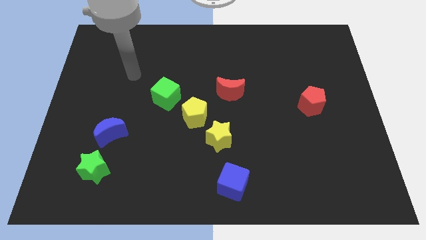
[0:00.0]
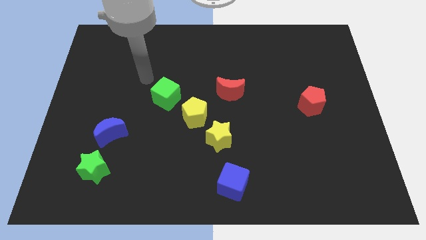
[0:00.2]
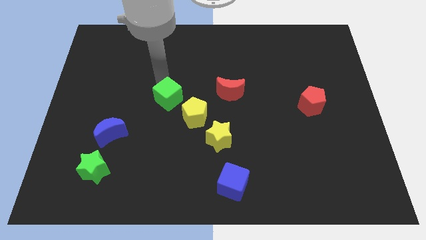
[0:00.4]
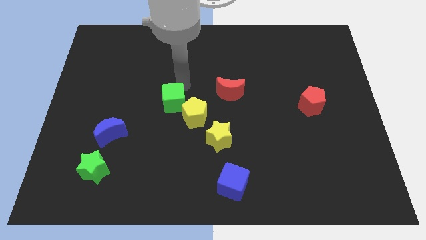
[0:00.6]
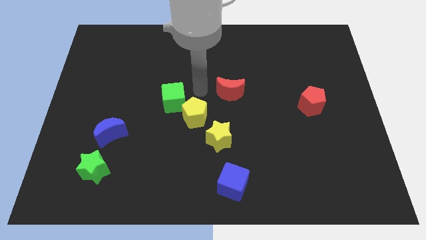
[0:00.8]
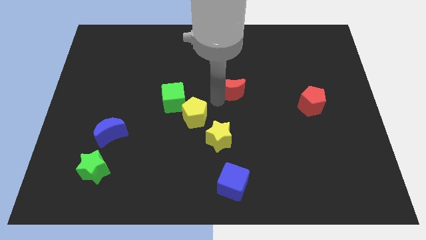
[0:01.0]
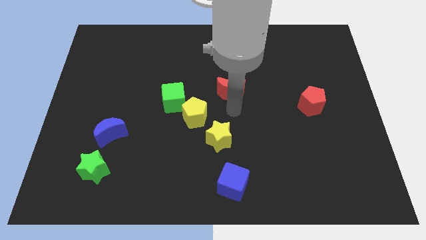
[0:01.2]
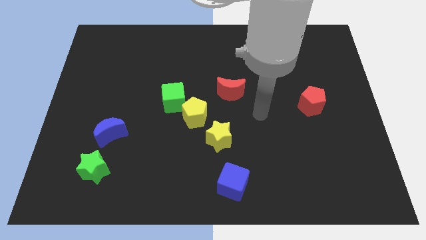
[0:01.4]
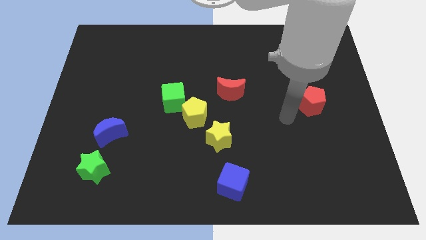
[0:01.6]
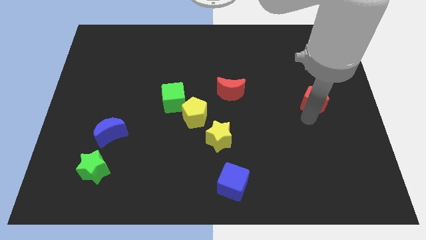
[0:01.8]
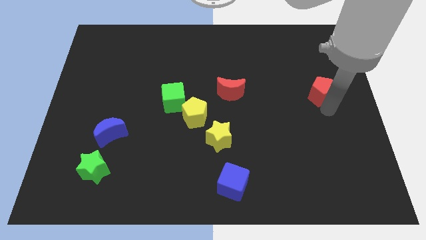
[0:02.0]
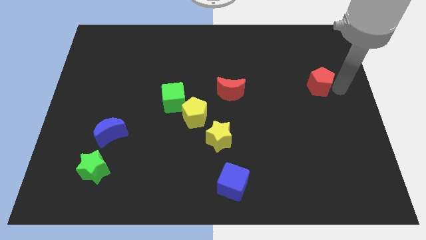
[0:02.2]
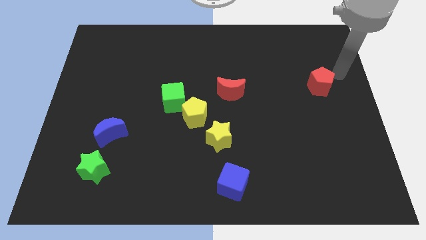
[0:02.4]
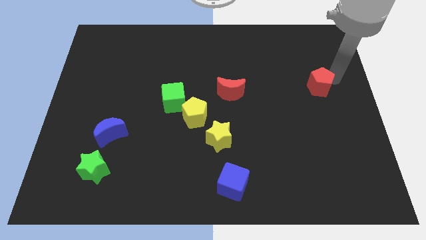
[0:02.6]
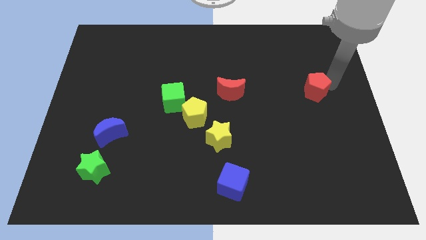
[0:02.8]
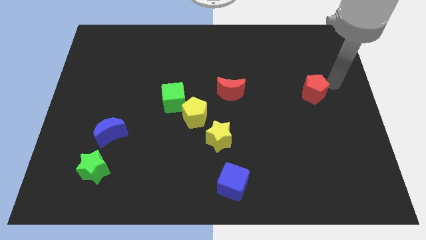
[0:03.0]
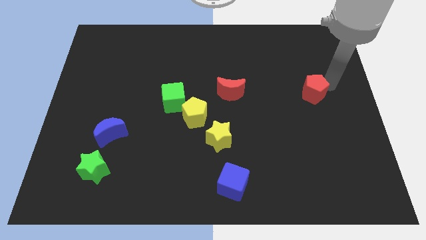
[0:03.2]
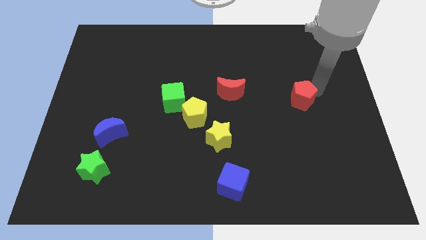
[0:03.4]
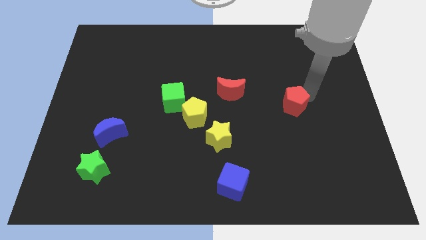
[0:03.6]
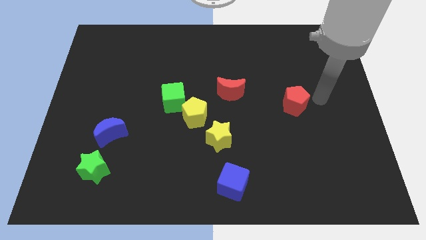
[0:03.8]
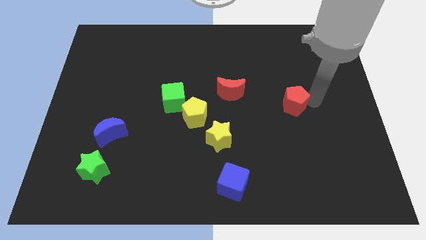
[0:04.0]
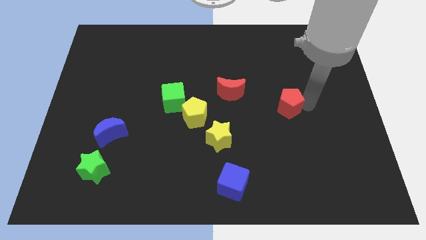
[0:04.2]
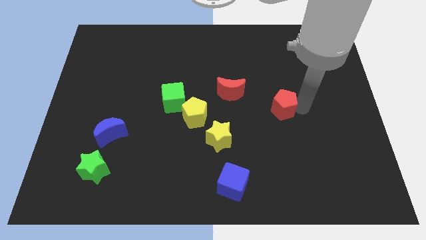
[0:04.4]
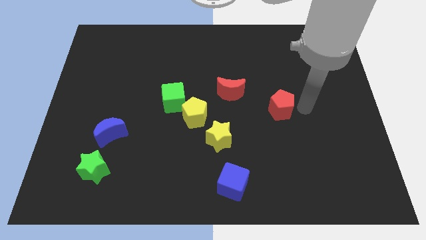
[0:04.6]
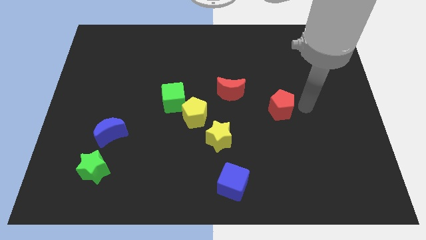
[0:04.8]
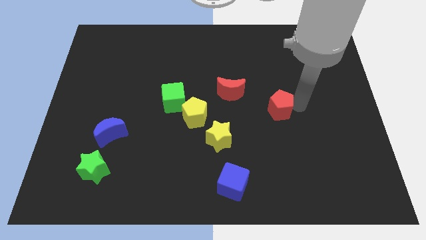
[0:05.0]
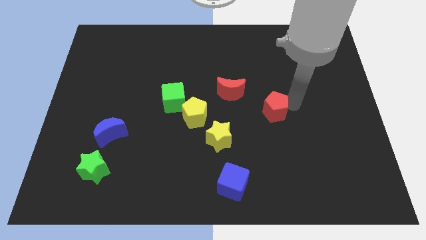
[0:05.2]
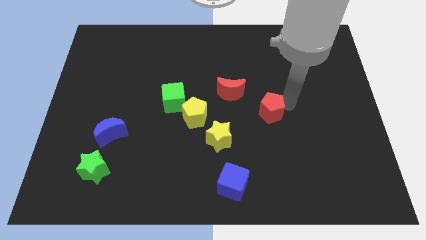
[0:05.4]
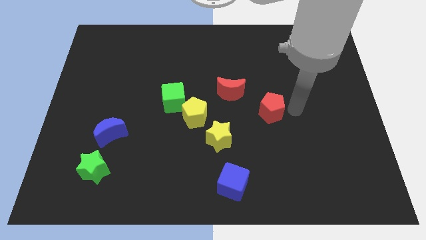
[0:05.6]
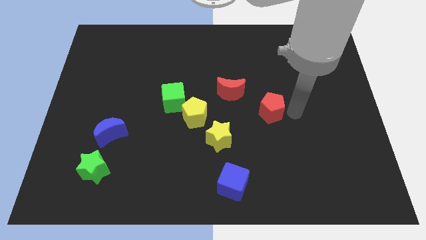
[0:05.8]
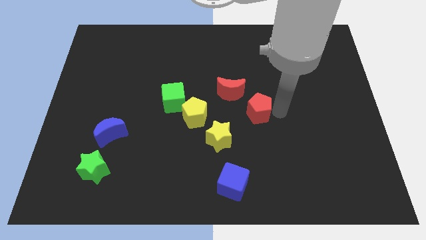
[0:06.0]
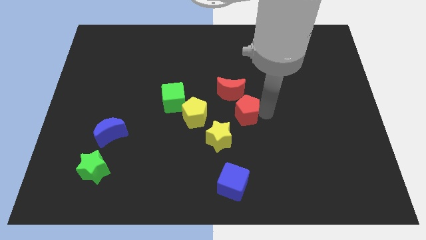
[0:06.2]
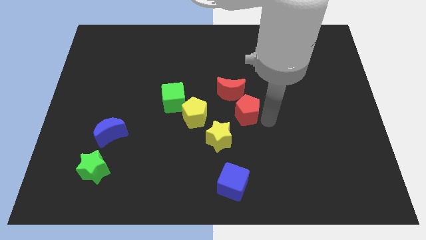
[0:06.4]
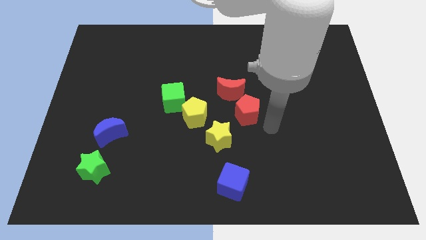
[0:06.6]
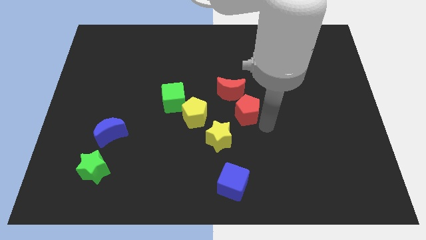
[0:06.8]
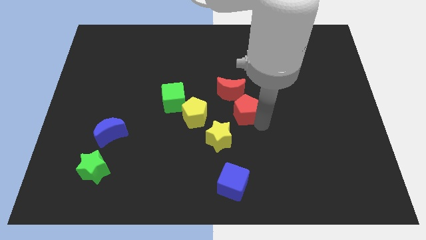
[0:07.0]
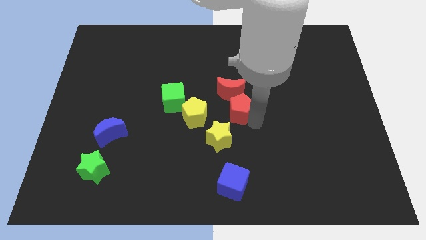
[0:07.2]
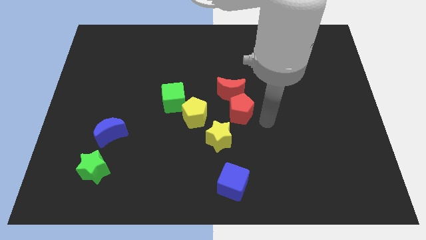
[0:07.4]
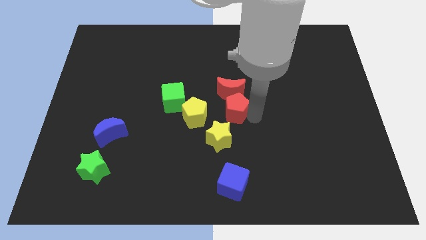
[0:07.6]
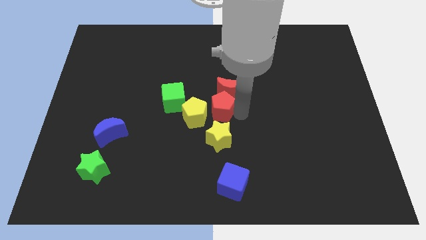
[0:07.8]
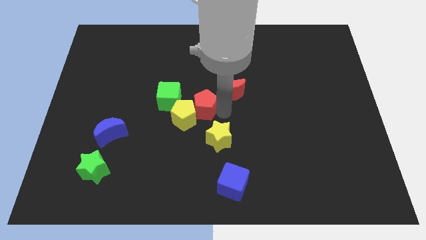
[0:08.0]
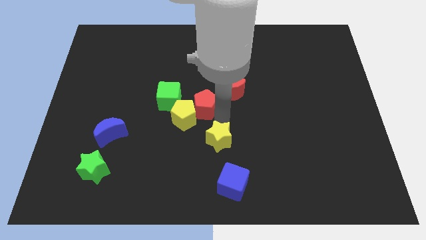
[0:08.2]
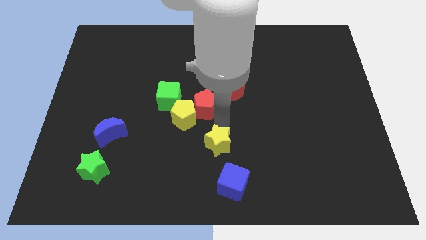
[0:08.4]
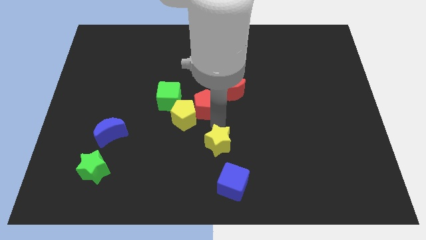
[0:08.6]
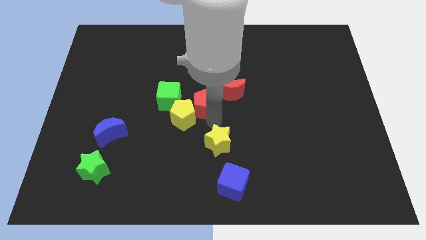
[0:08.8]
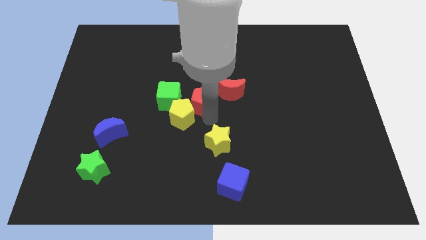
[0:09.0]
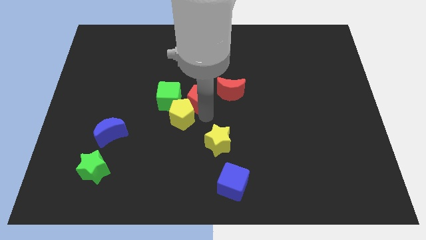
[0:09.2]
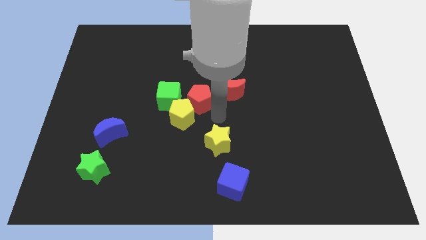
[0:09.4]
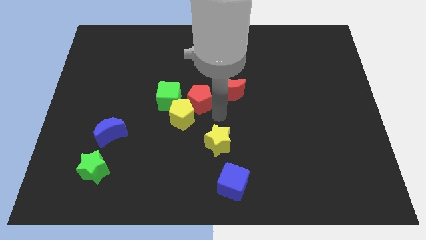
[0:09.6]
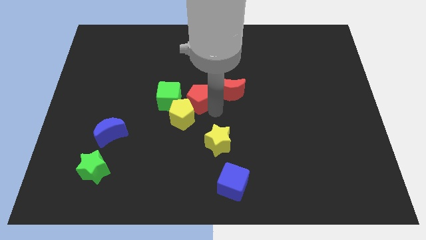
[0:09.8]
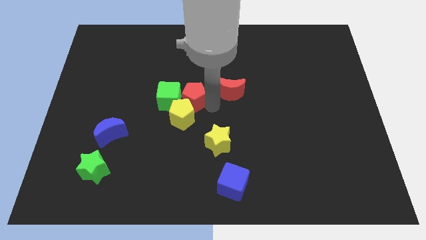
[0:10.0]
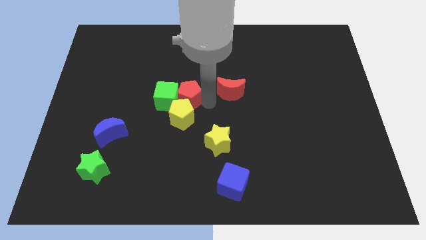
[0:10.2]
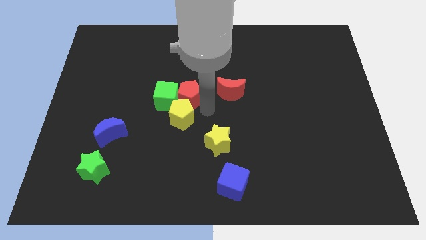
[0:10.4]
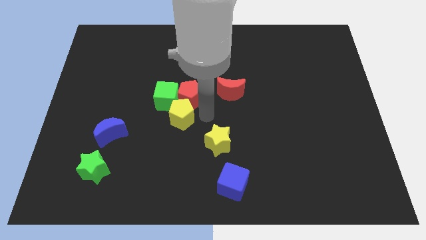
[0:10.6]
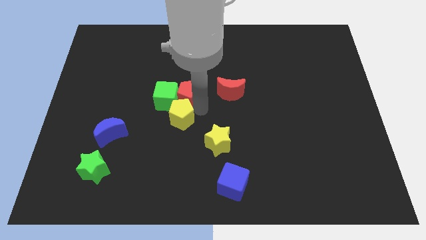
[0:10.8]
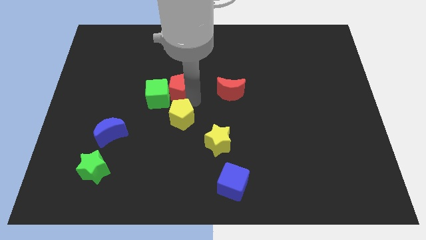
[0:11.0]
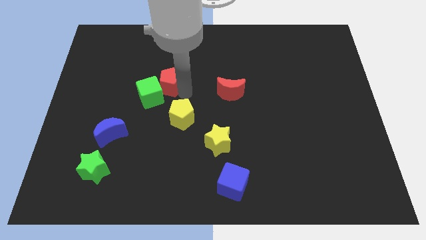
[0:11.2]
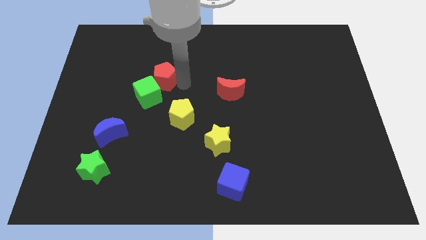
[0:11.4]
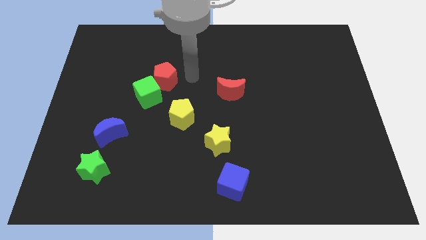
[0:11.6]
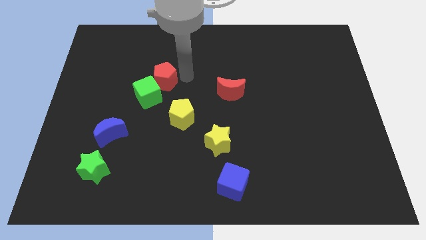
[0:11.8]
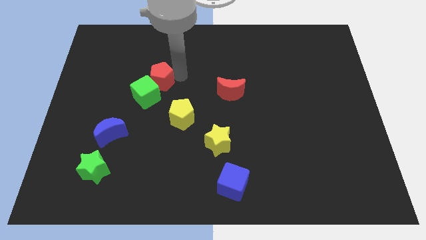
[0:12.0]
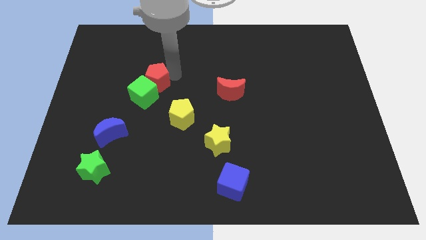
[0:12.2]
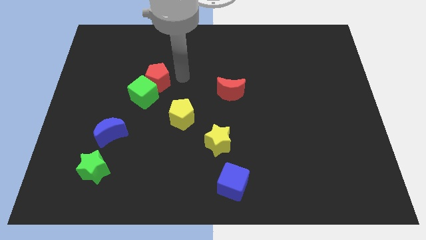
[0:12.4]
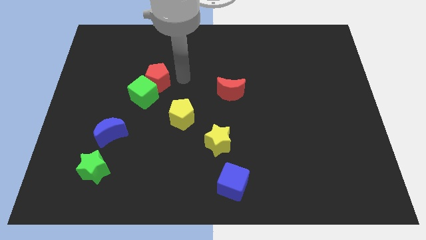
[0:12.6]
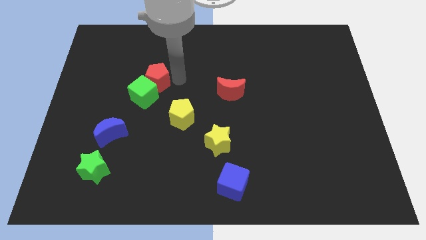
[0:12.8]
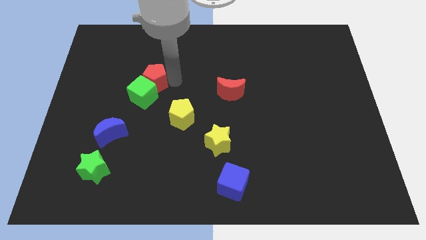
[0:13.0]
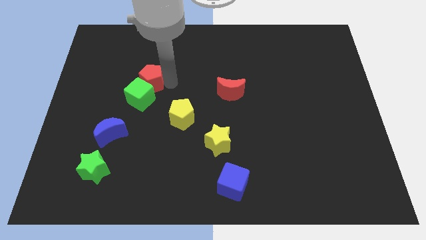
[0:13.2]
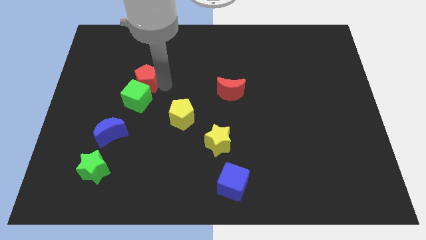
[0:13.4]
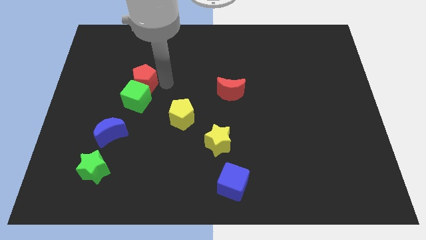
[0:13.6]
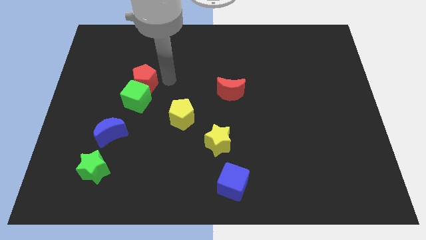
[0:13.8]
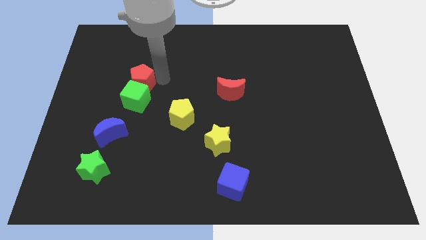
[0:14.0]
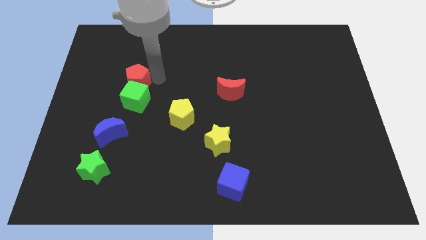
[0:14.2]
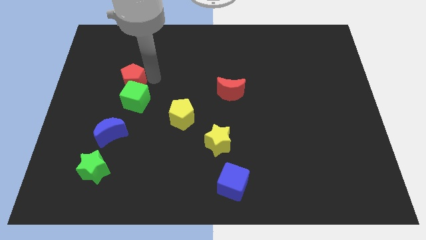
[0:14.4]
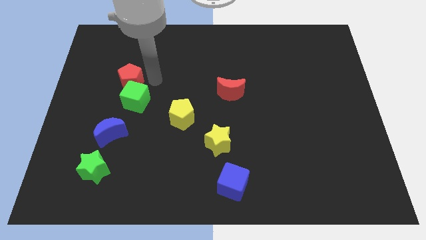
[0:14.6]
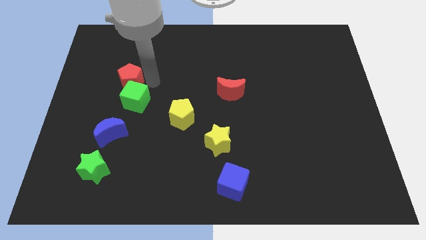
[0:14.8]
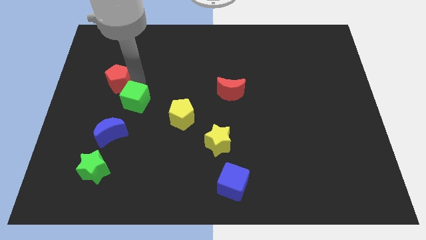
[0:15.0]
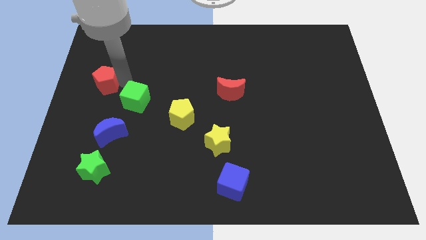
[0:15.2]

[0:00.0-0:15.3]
push the red pentagon to the left side
